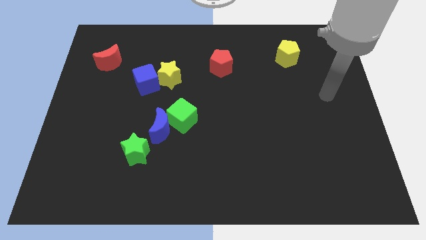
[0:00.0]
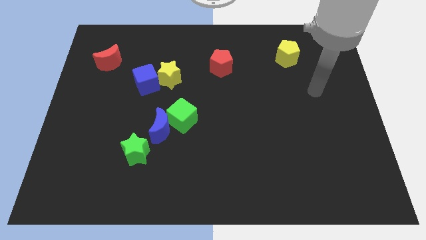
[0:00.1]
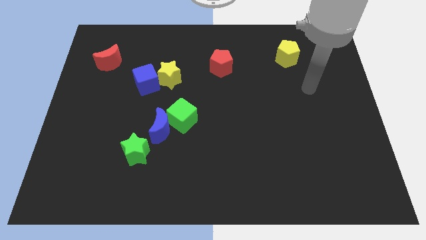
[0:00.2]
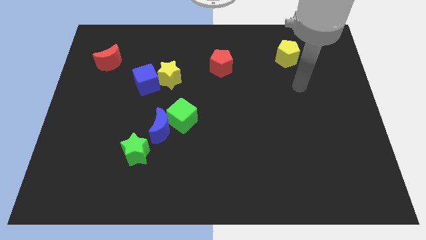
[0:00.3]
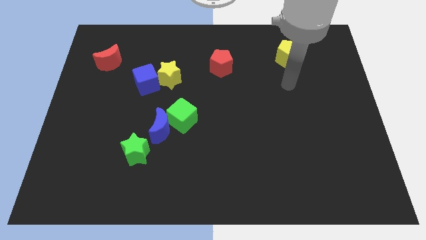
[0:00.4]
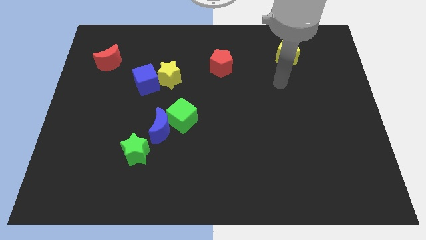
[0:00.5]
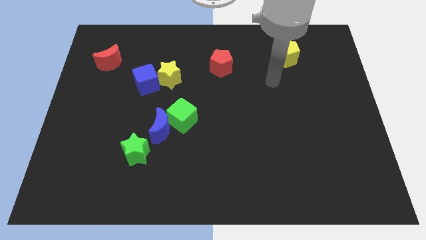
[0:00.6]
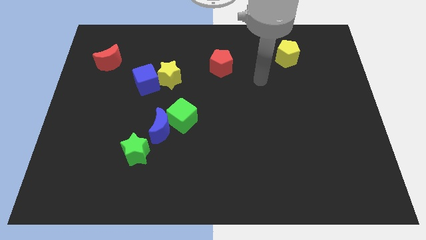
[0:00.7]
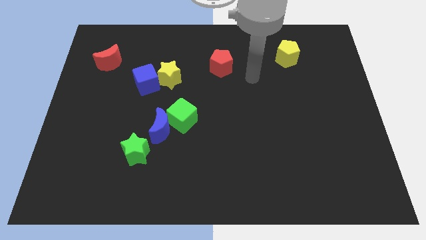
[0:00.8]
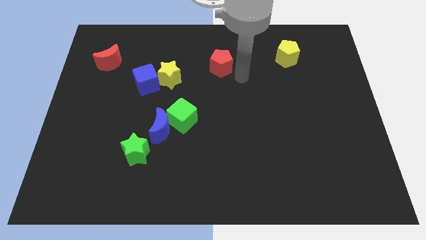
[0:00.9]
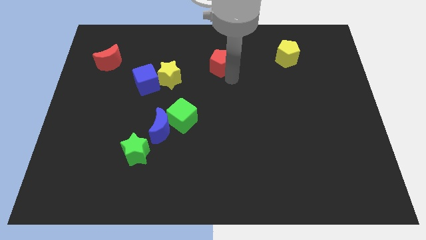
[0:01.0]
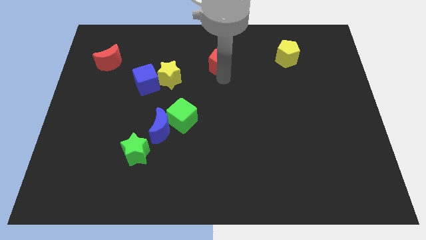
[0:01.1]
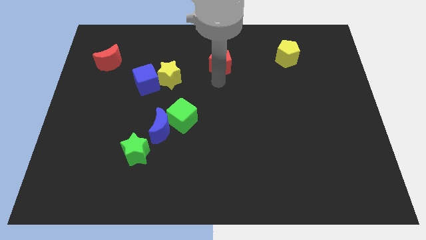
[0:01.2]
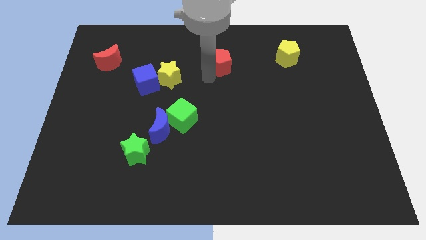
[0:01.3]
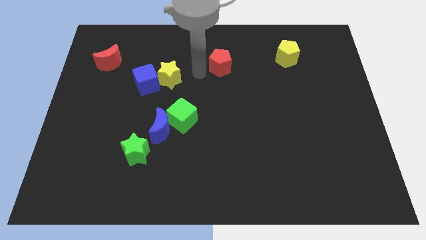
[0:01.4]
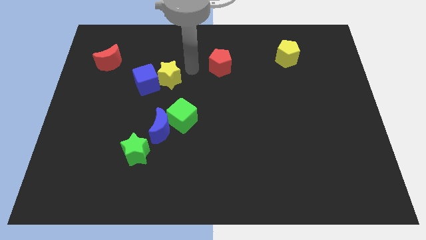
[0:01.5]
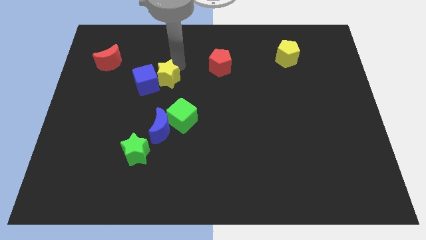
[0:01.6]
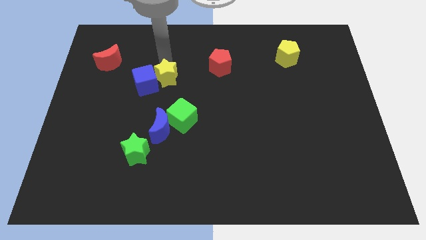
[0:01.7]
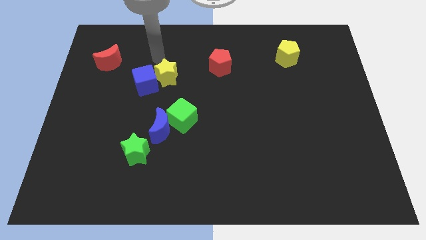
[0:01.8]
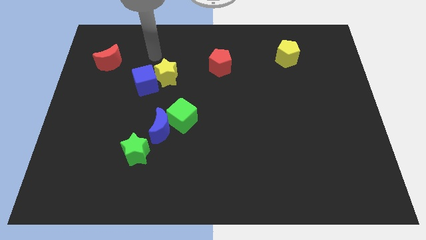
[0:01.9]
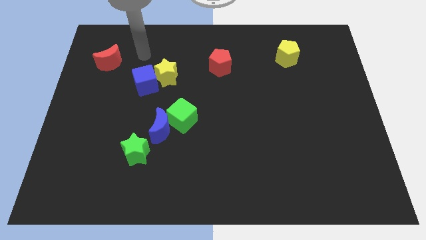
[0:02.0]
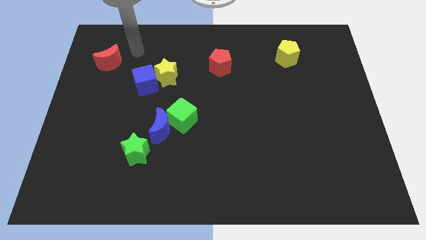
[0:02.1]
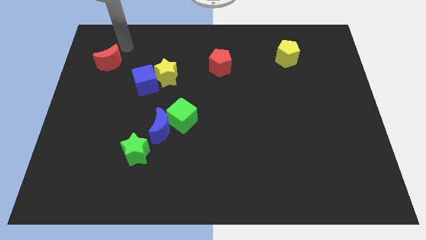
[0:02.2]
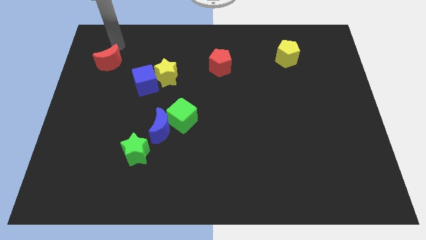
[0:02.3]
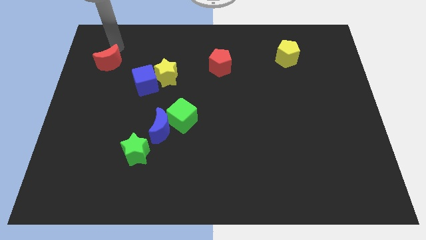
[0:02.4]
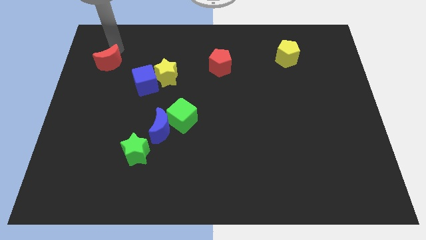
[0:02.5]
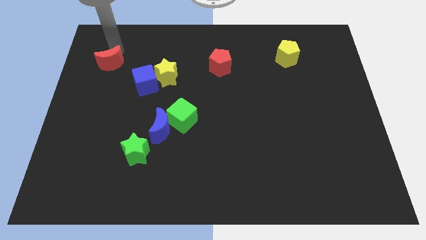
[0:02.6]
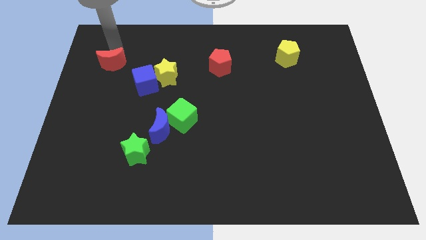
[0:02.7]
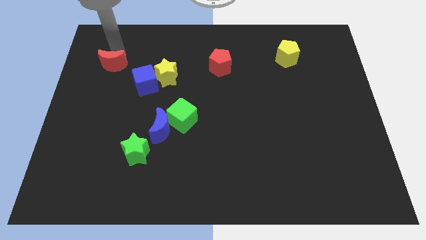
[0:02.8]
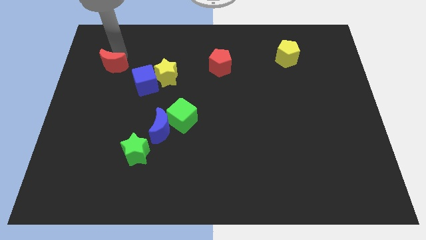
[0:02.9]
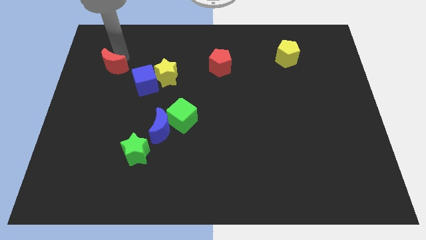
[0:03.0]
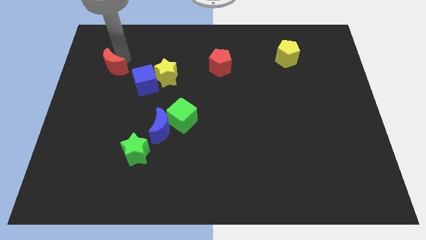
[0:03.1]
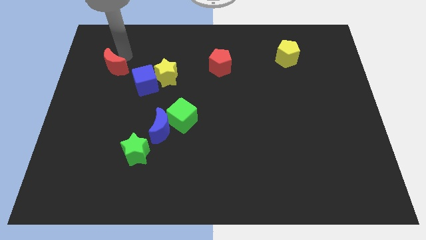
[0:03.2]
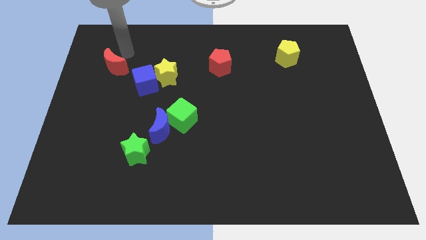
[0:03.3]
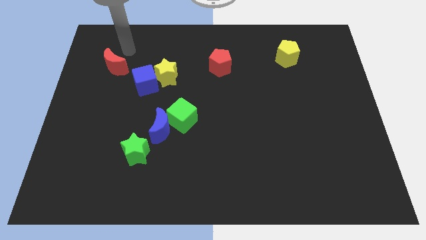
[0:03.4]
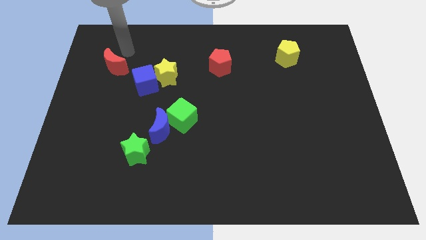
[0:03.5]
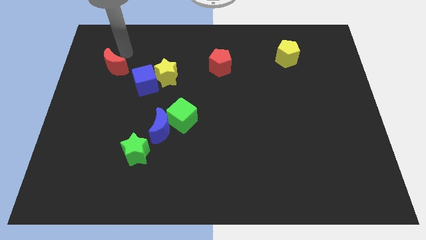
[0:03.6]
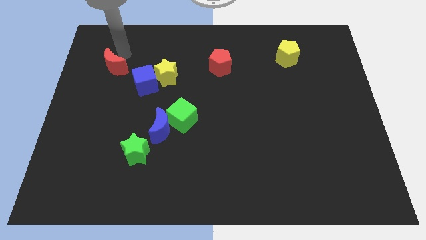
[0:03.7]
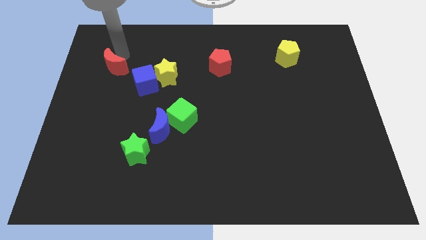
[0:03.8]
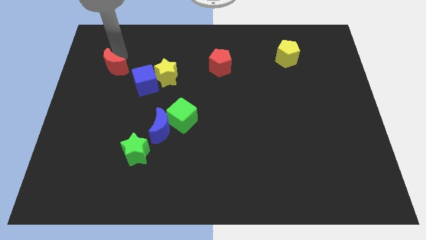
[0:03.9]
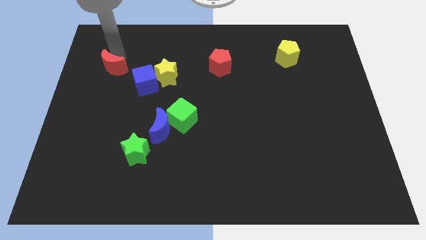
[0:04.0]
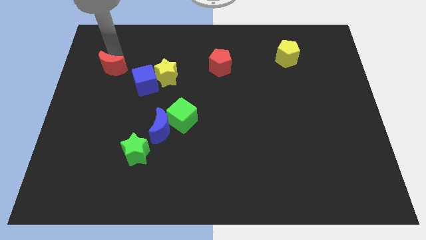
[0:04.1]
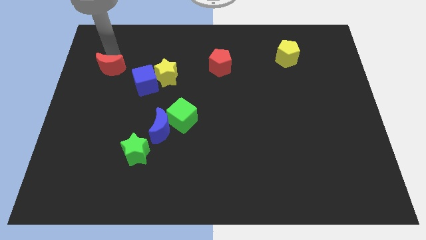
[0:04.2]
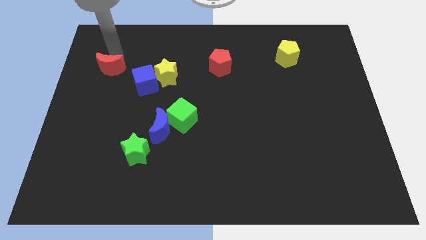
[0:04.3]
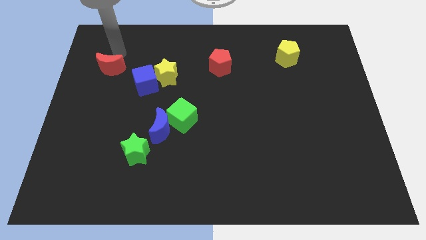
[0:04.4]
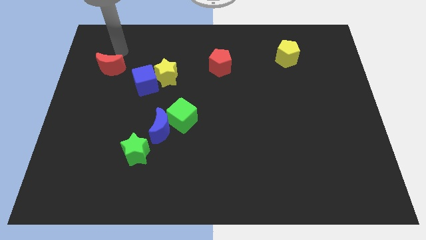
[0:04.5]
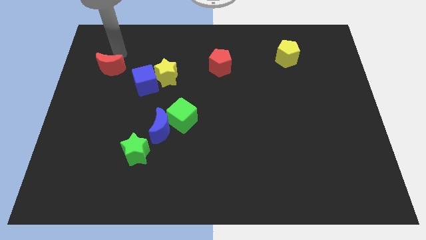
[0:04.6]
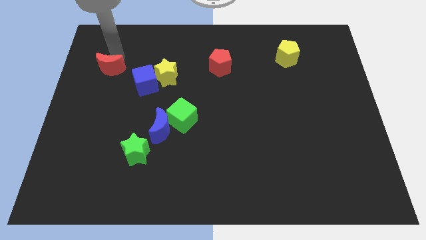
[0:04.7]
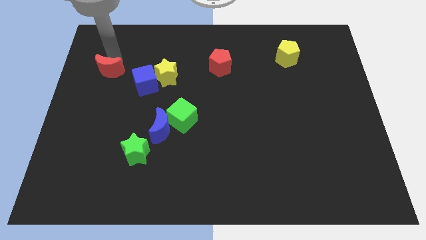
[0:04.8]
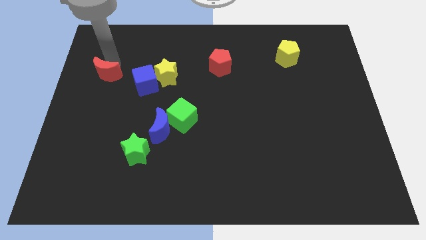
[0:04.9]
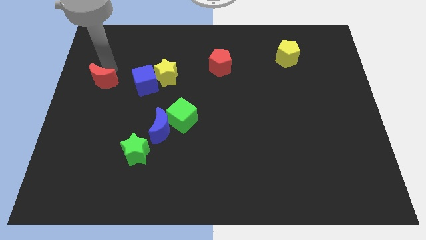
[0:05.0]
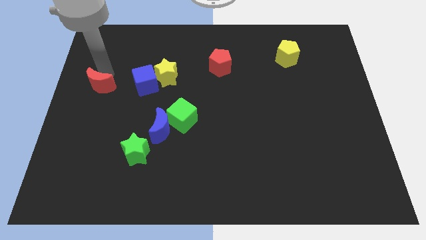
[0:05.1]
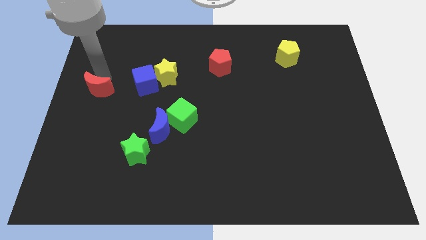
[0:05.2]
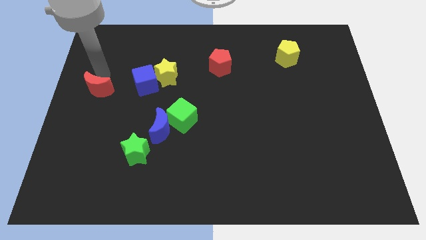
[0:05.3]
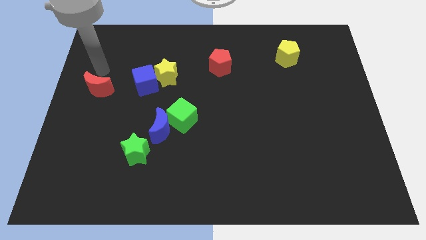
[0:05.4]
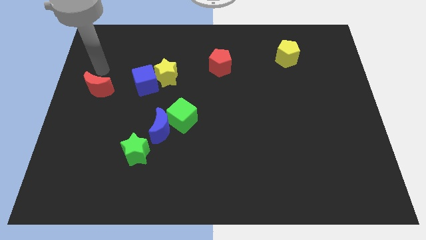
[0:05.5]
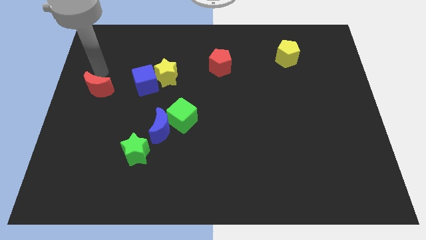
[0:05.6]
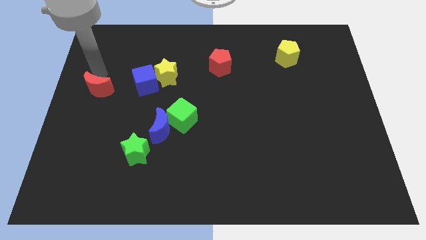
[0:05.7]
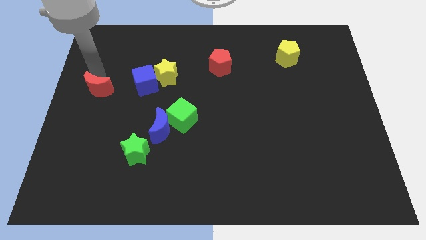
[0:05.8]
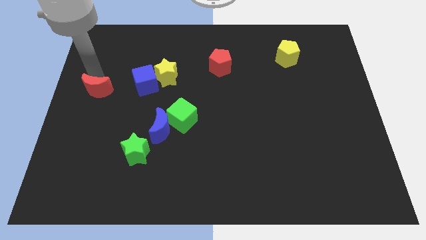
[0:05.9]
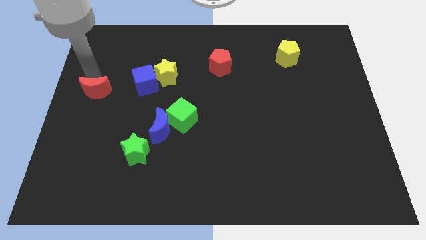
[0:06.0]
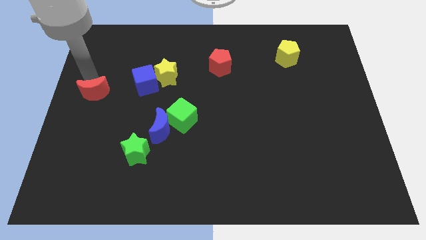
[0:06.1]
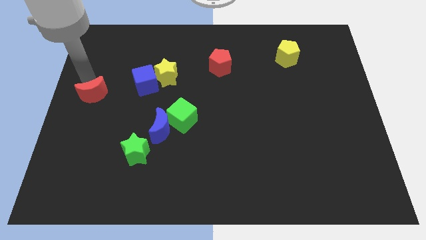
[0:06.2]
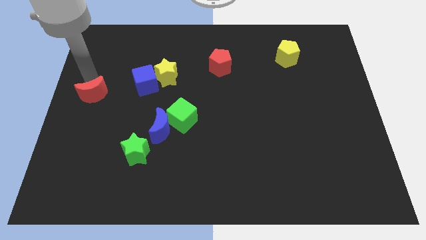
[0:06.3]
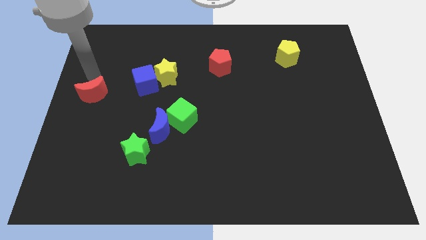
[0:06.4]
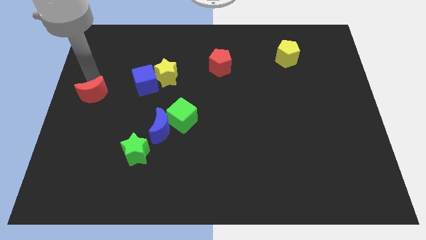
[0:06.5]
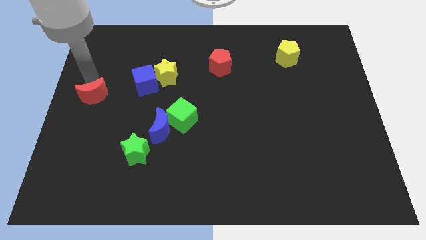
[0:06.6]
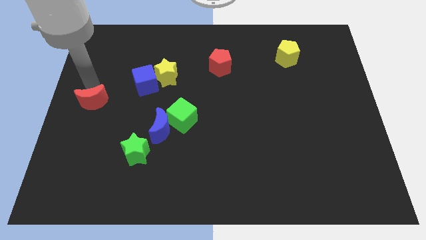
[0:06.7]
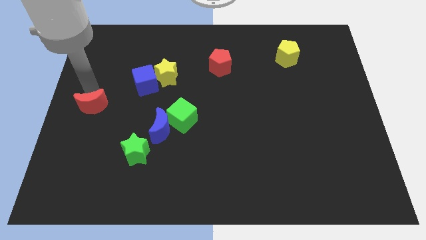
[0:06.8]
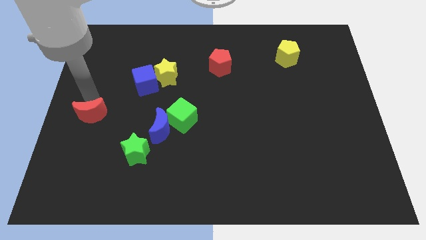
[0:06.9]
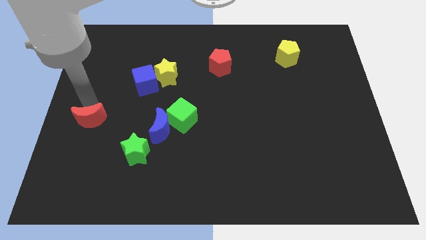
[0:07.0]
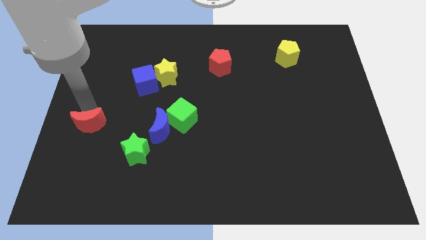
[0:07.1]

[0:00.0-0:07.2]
move the red moon down

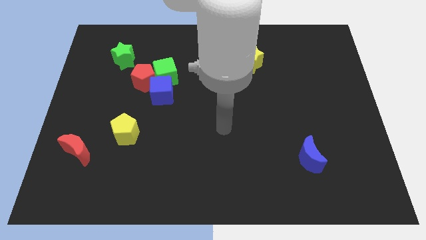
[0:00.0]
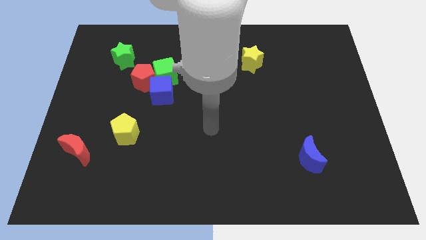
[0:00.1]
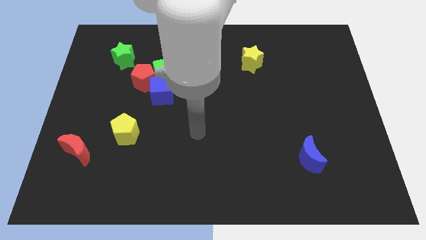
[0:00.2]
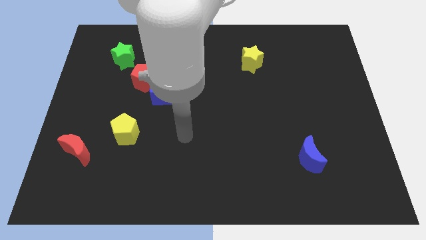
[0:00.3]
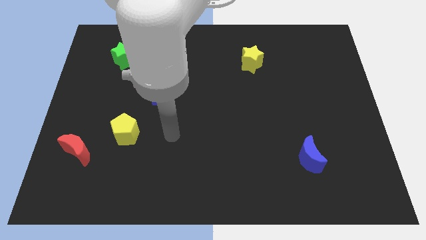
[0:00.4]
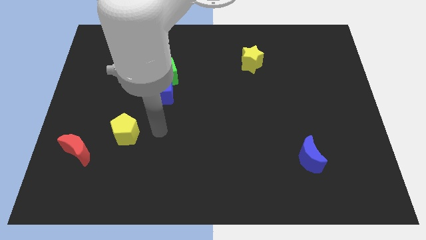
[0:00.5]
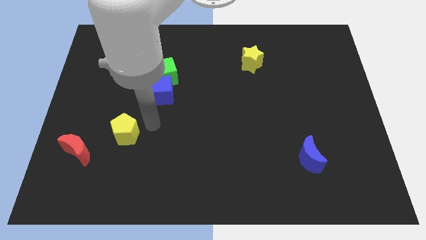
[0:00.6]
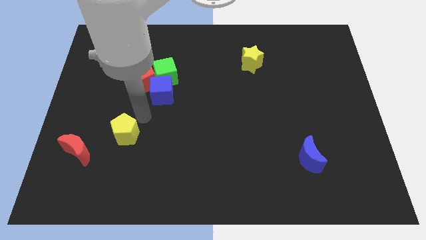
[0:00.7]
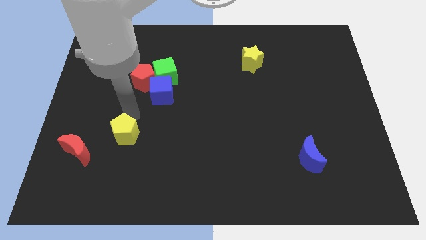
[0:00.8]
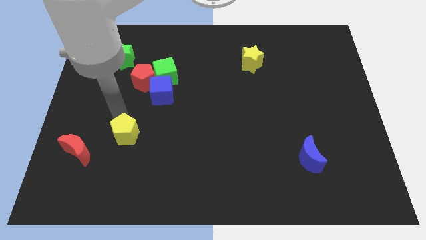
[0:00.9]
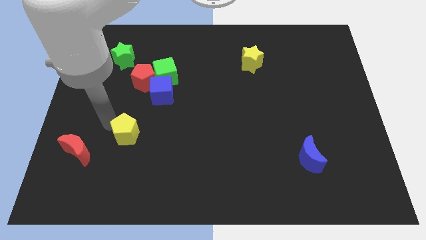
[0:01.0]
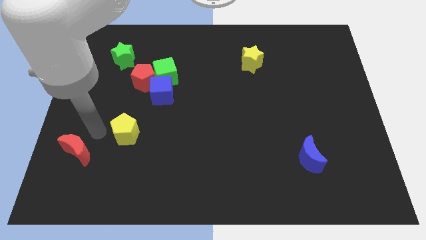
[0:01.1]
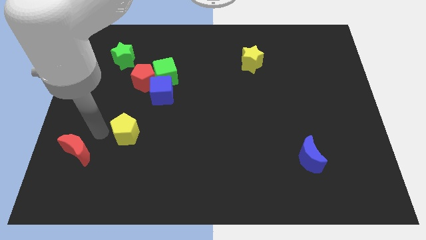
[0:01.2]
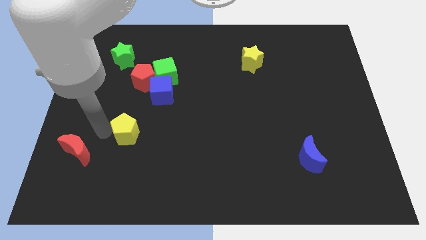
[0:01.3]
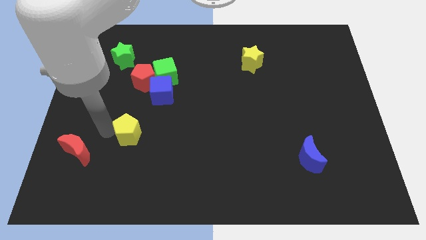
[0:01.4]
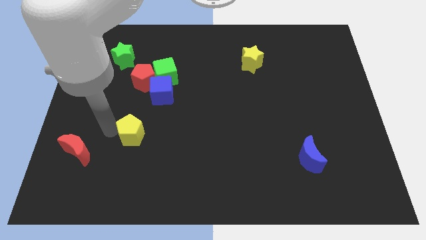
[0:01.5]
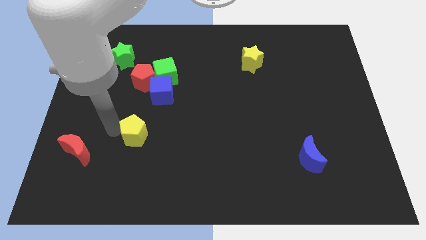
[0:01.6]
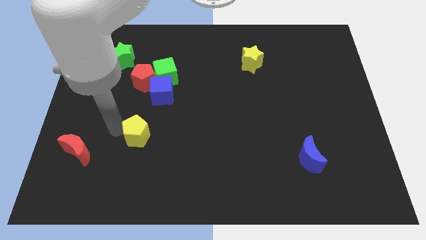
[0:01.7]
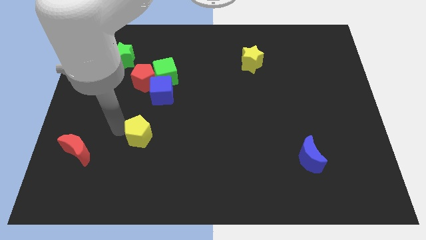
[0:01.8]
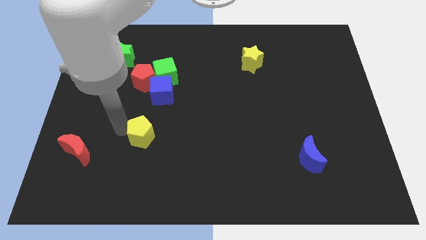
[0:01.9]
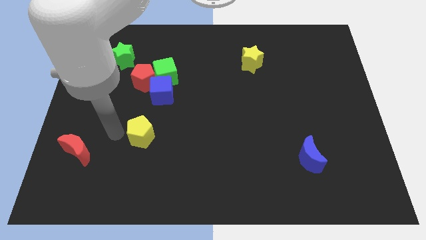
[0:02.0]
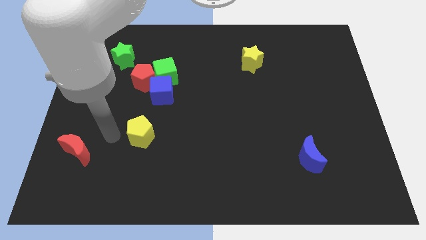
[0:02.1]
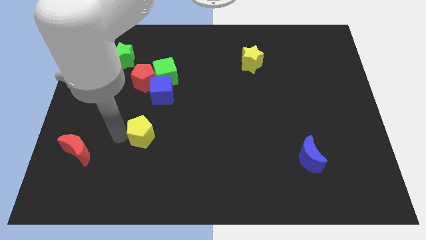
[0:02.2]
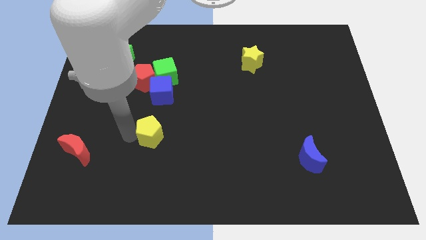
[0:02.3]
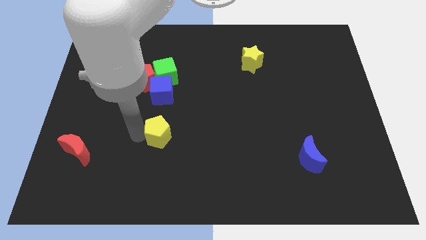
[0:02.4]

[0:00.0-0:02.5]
slide the yellow pentagon right slightly
